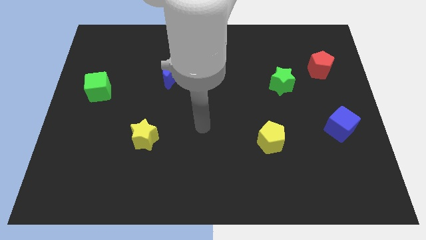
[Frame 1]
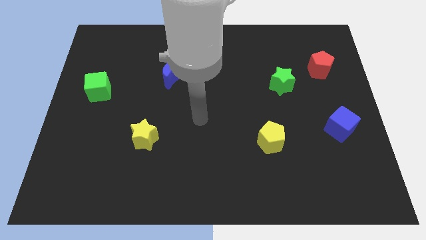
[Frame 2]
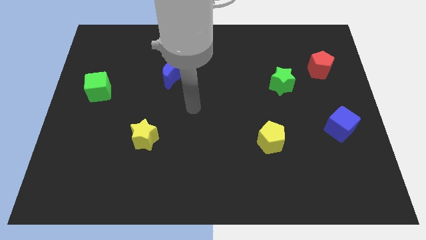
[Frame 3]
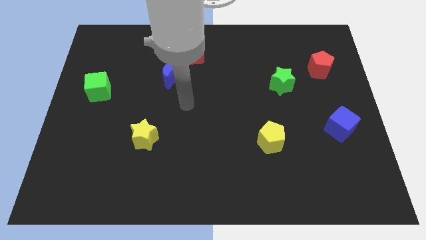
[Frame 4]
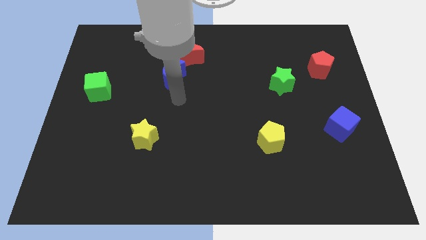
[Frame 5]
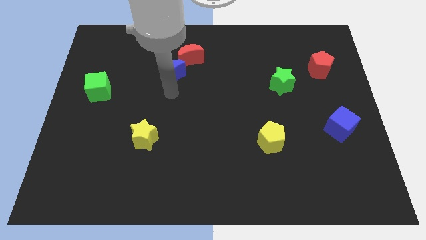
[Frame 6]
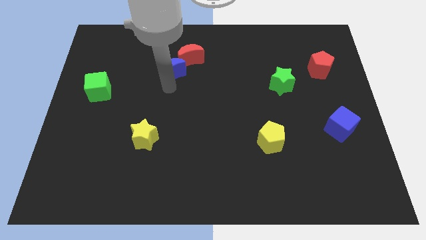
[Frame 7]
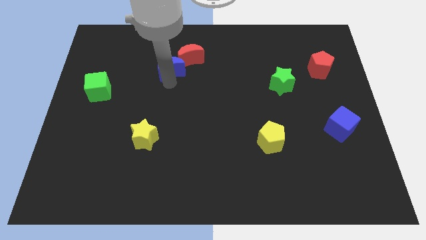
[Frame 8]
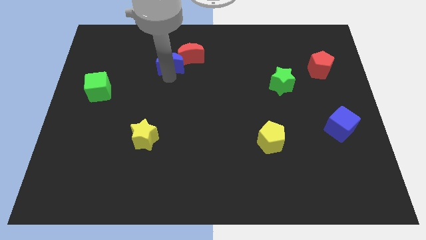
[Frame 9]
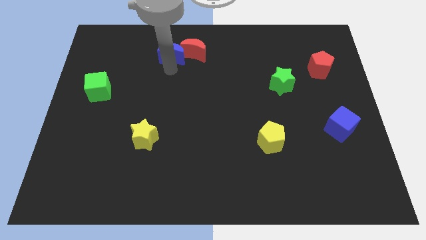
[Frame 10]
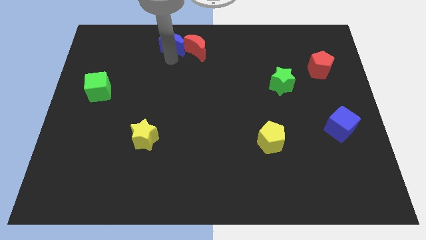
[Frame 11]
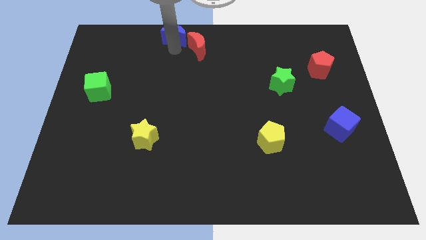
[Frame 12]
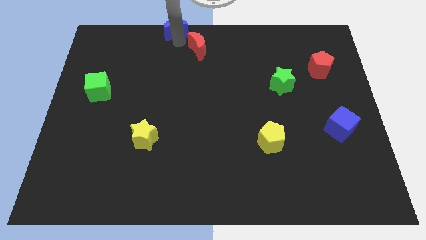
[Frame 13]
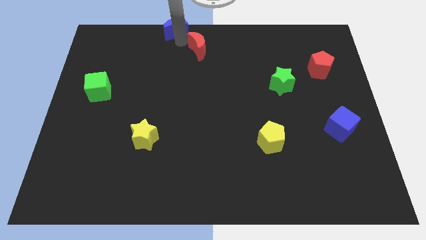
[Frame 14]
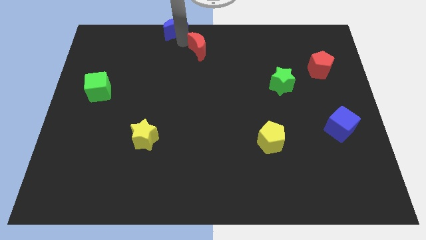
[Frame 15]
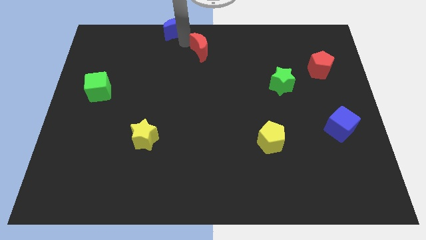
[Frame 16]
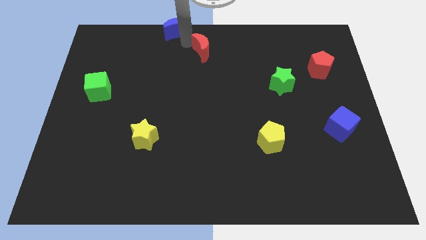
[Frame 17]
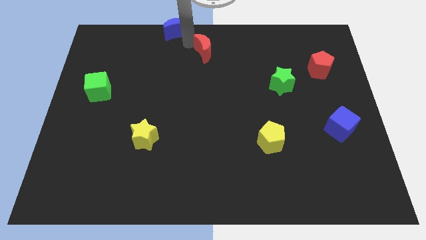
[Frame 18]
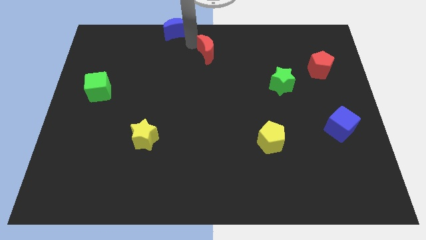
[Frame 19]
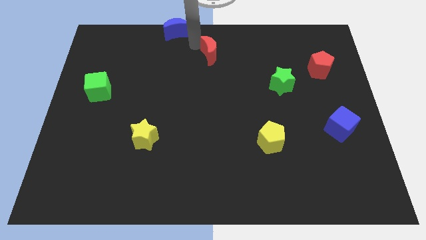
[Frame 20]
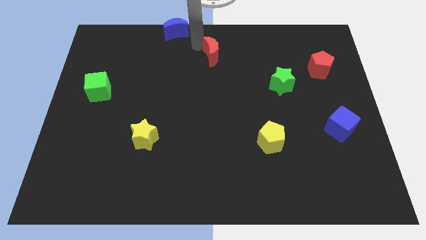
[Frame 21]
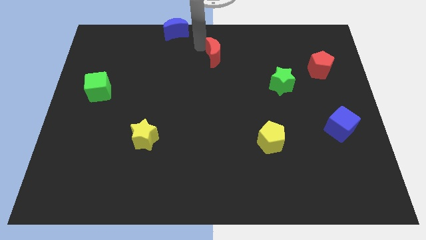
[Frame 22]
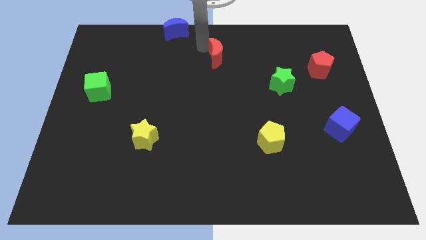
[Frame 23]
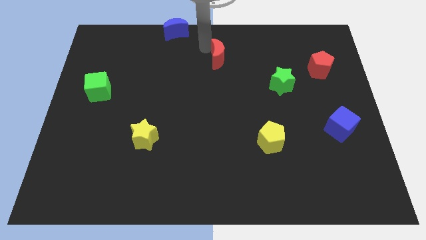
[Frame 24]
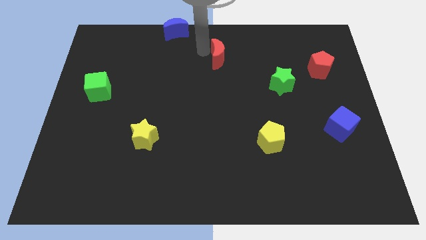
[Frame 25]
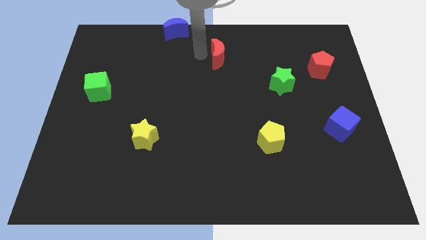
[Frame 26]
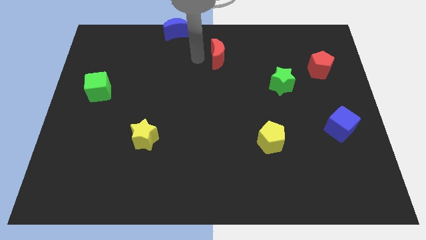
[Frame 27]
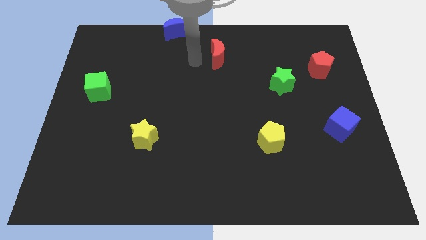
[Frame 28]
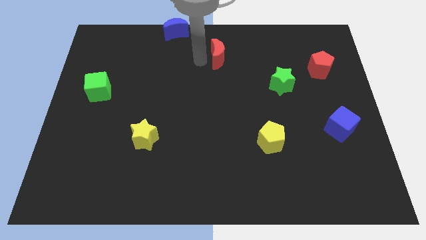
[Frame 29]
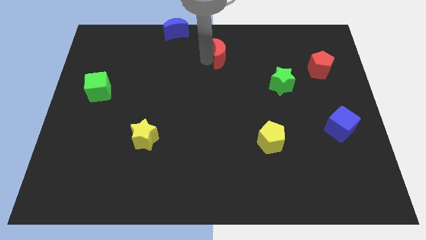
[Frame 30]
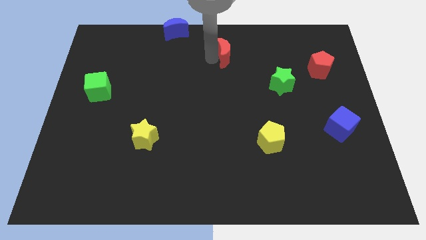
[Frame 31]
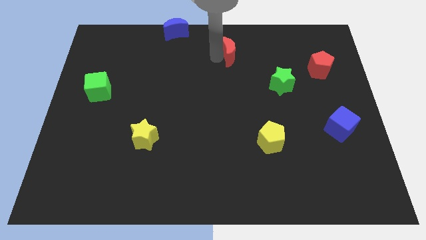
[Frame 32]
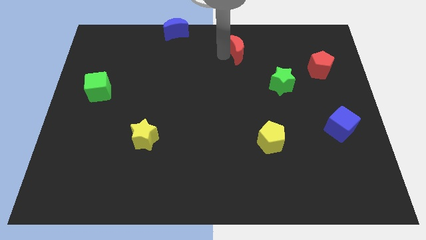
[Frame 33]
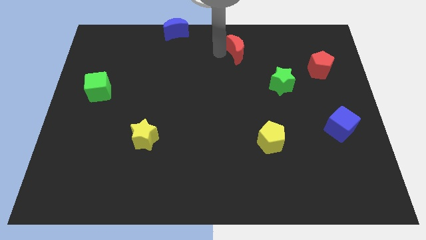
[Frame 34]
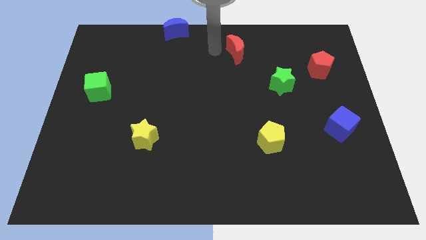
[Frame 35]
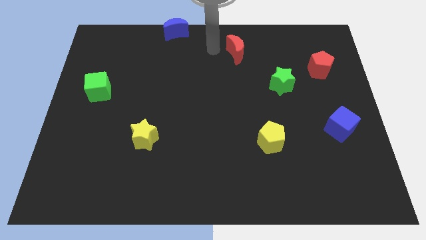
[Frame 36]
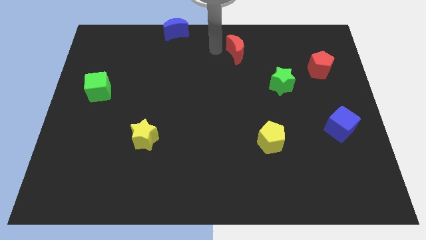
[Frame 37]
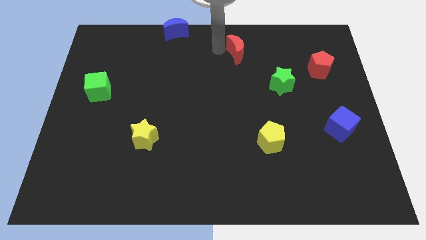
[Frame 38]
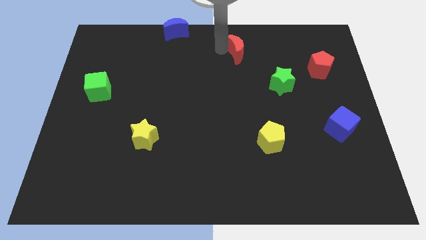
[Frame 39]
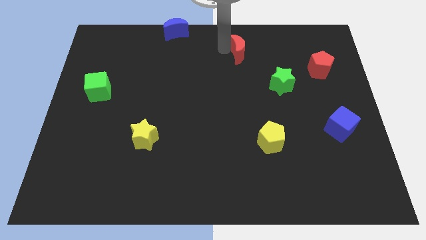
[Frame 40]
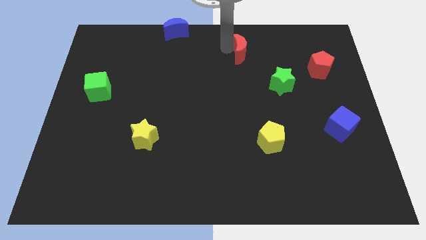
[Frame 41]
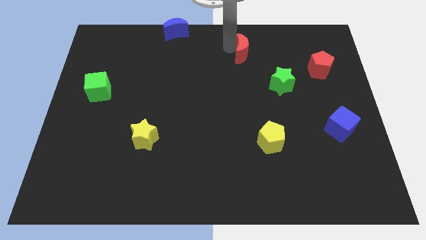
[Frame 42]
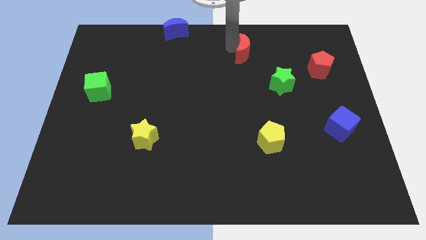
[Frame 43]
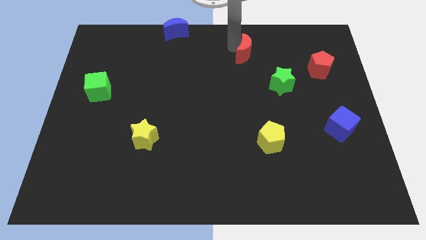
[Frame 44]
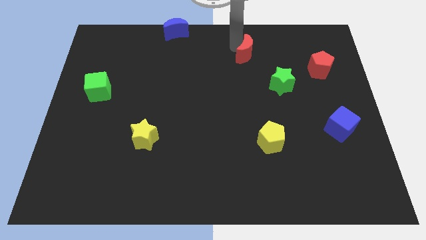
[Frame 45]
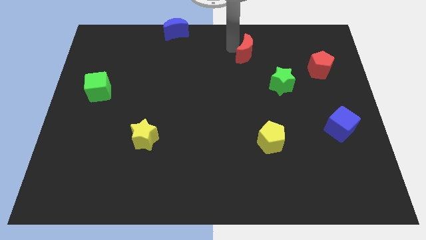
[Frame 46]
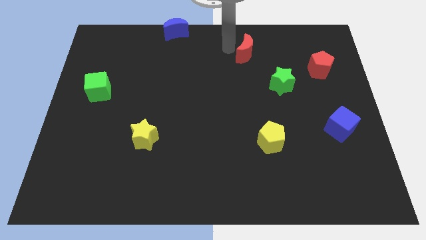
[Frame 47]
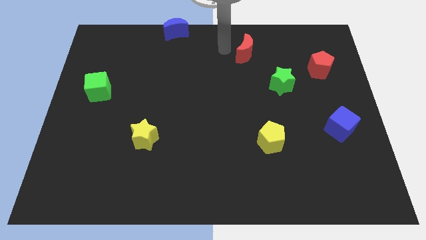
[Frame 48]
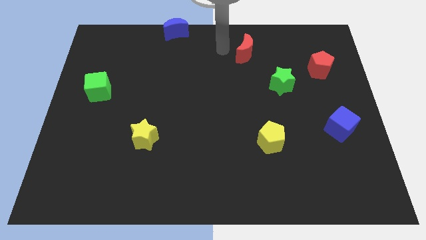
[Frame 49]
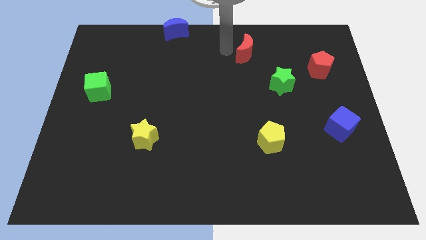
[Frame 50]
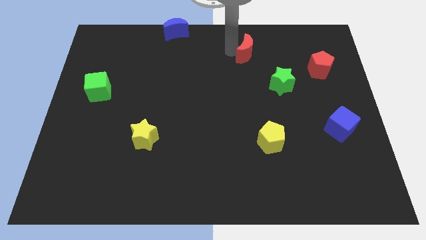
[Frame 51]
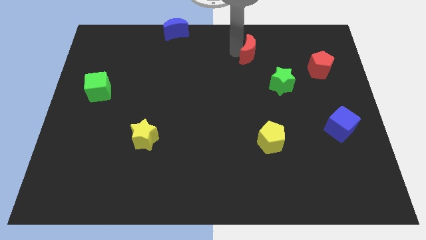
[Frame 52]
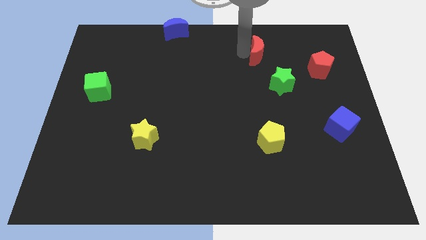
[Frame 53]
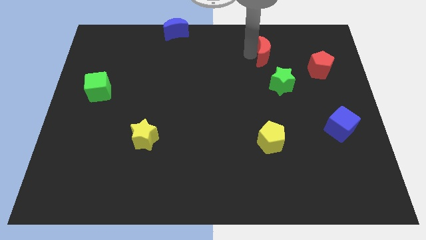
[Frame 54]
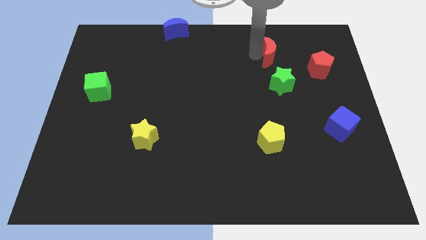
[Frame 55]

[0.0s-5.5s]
push the red moon right

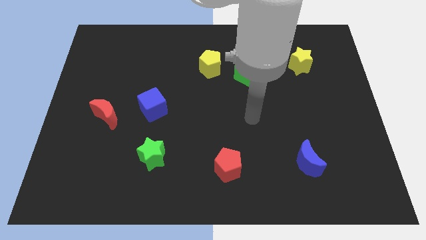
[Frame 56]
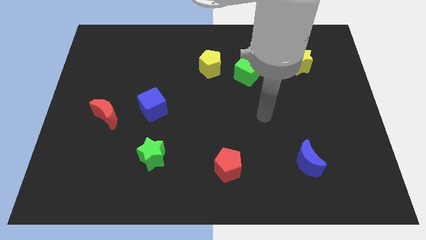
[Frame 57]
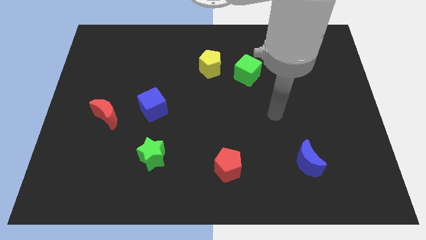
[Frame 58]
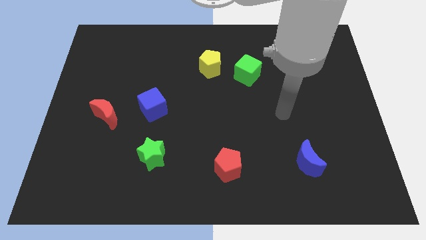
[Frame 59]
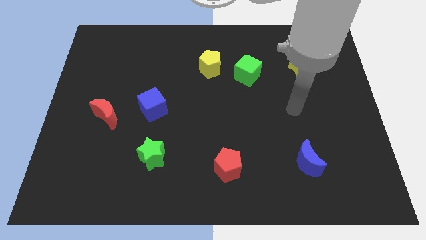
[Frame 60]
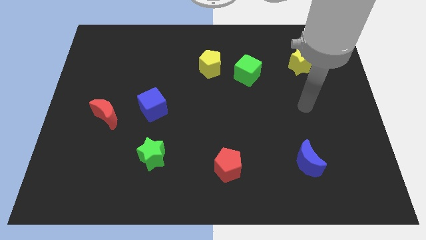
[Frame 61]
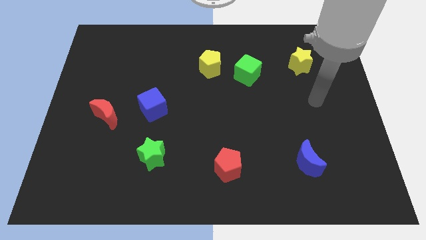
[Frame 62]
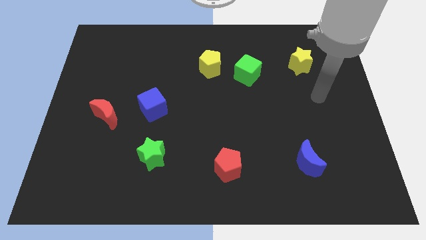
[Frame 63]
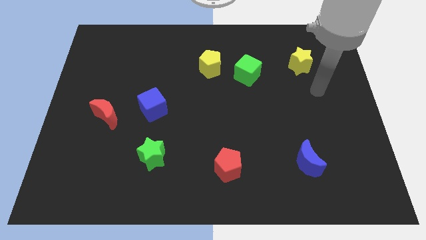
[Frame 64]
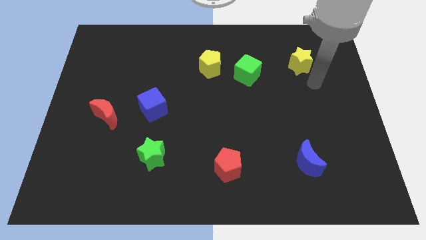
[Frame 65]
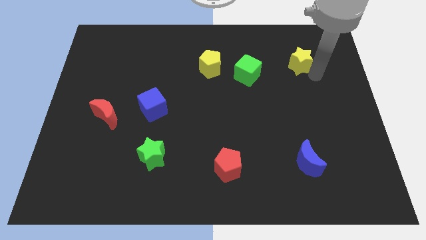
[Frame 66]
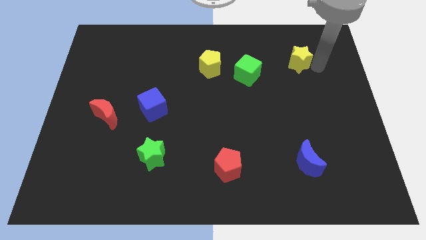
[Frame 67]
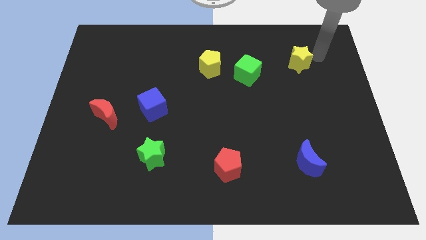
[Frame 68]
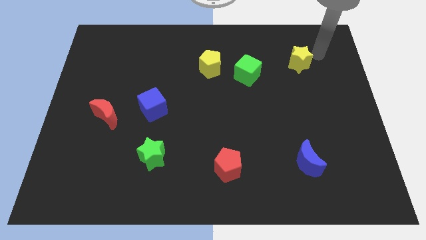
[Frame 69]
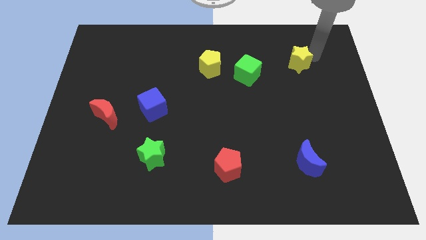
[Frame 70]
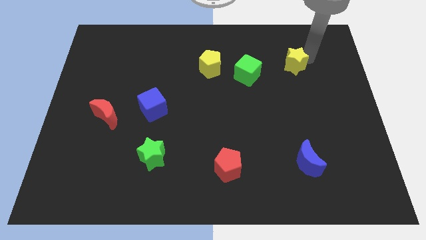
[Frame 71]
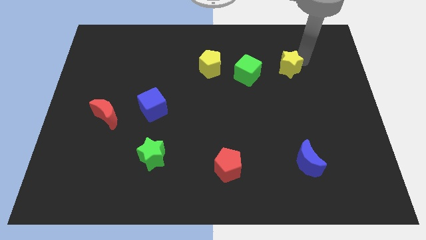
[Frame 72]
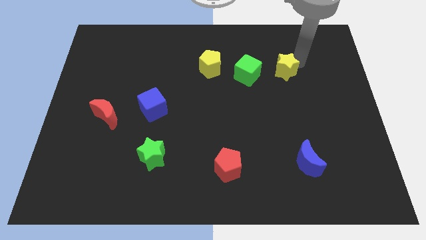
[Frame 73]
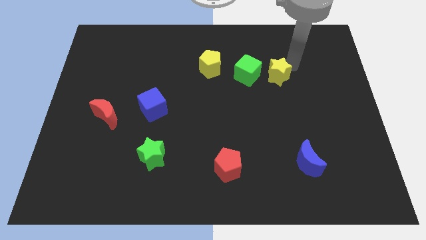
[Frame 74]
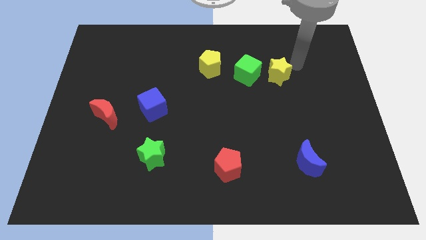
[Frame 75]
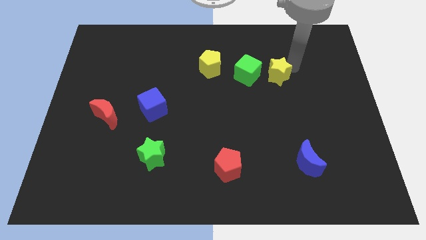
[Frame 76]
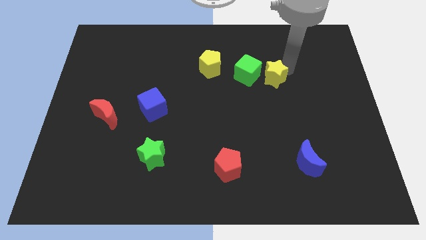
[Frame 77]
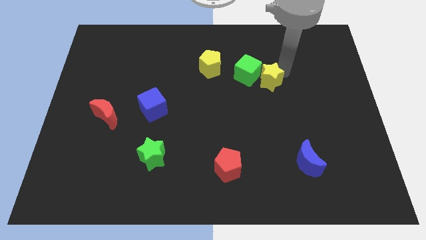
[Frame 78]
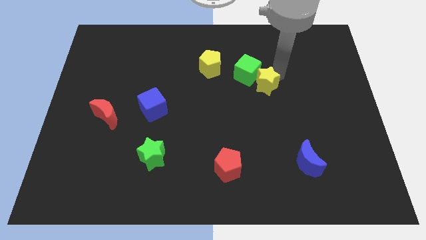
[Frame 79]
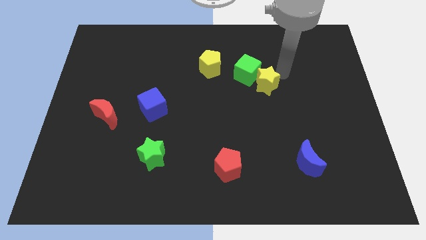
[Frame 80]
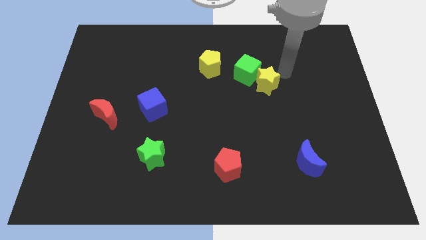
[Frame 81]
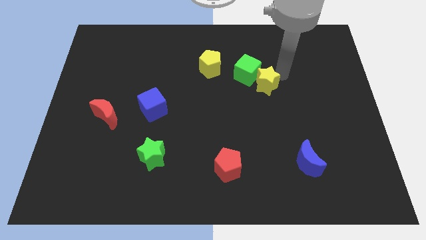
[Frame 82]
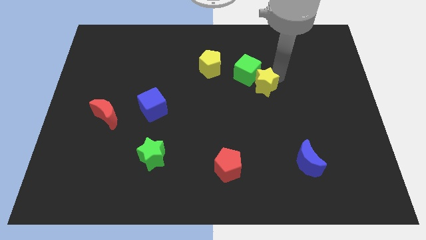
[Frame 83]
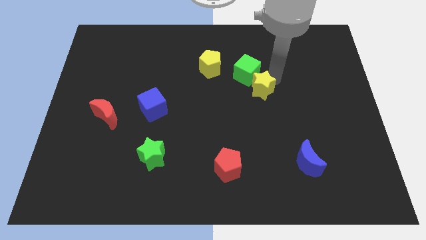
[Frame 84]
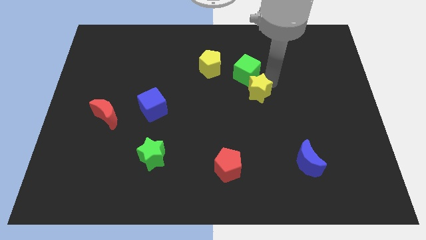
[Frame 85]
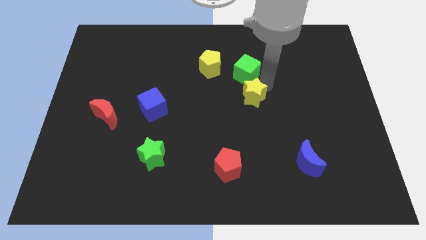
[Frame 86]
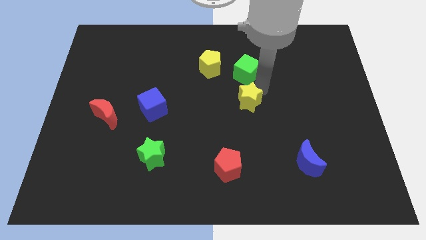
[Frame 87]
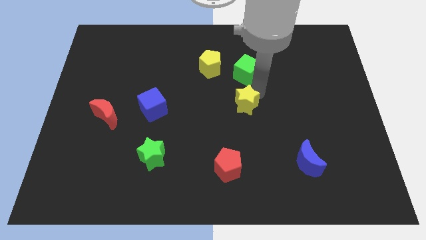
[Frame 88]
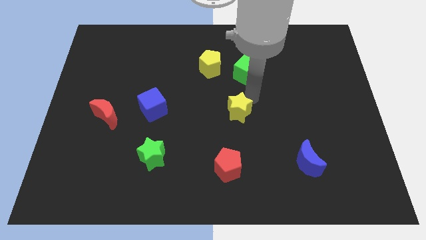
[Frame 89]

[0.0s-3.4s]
move the yellow star down and to the left
